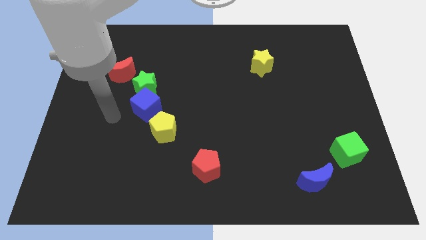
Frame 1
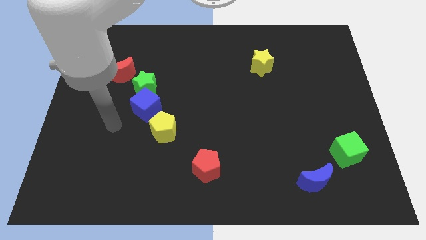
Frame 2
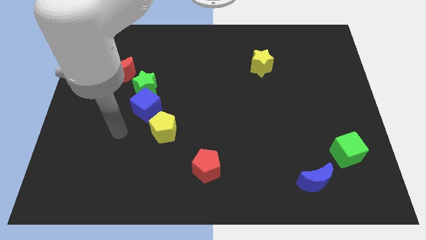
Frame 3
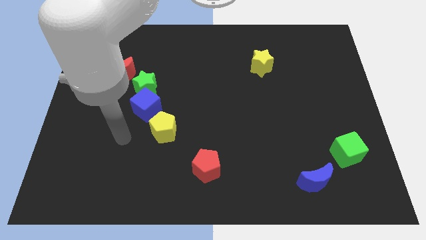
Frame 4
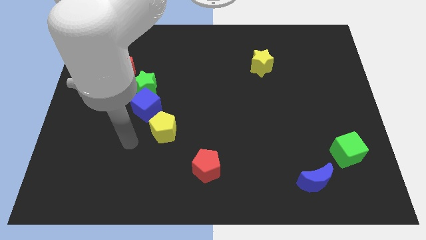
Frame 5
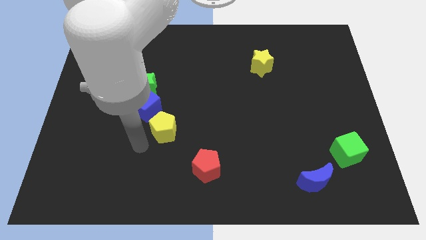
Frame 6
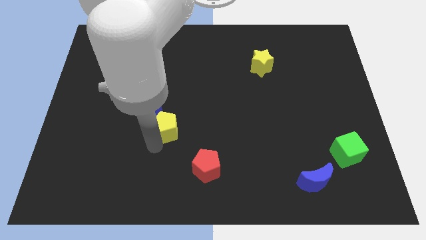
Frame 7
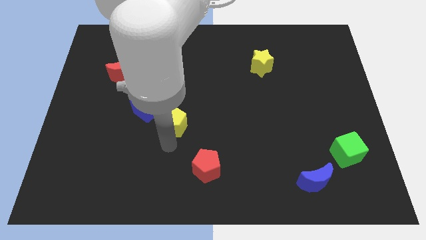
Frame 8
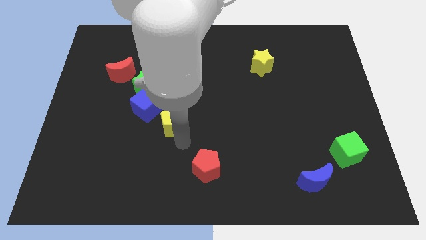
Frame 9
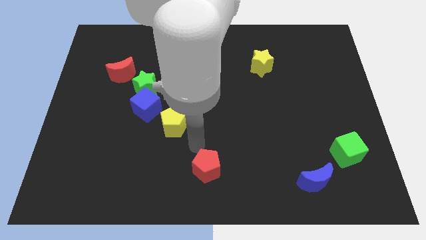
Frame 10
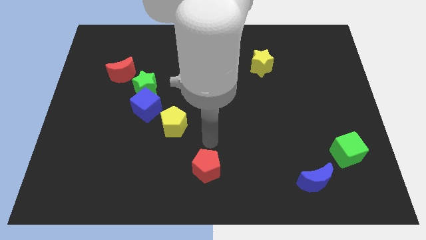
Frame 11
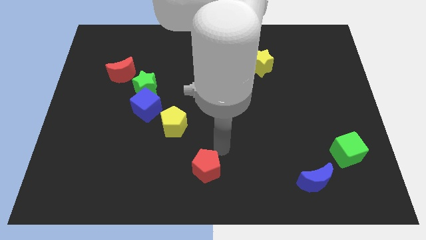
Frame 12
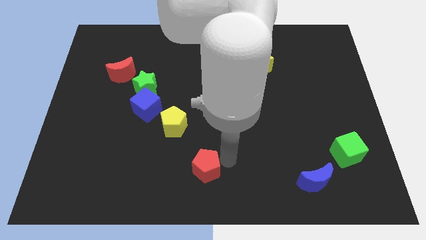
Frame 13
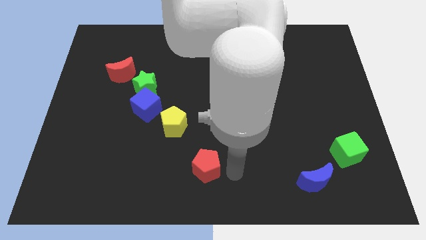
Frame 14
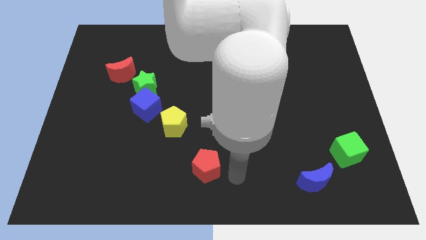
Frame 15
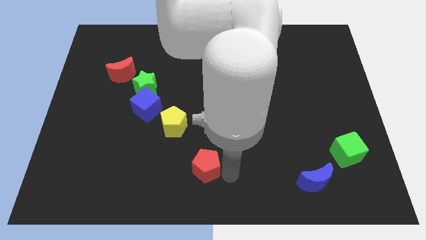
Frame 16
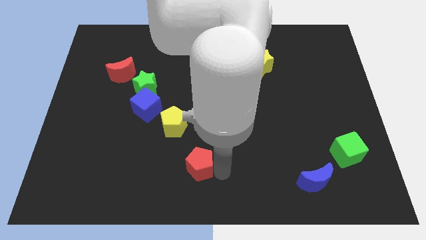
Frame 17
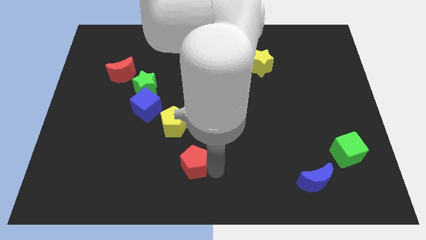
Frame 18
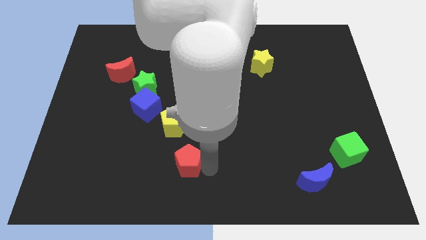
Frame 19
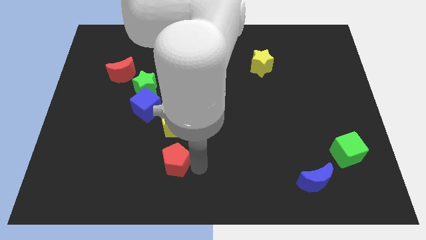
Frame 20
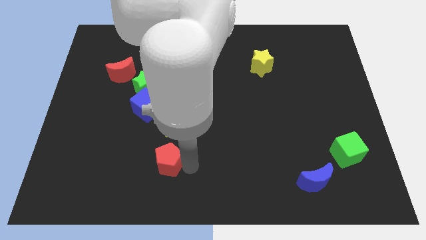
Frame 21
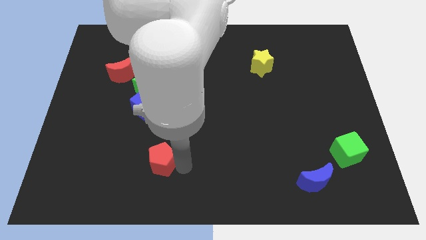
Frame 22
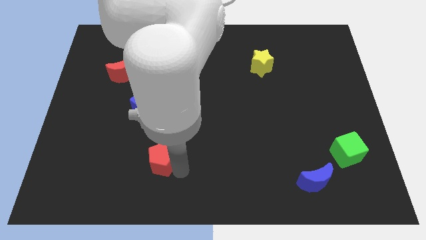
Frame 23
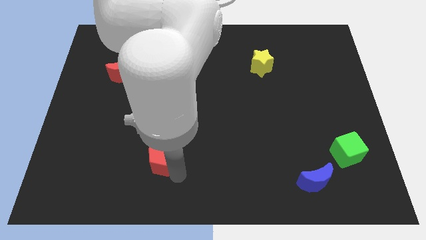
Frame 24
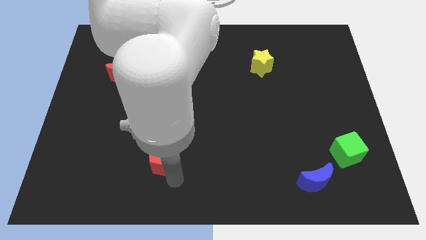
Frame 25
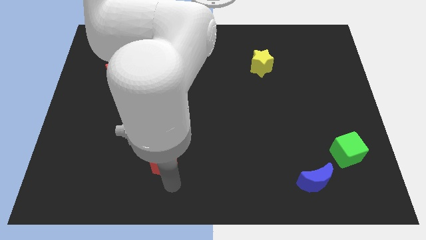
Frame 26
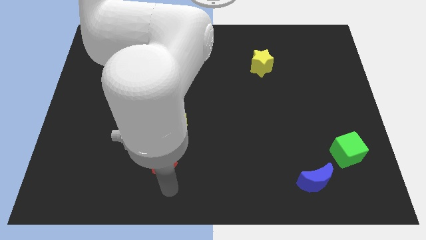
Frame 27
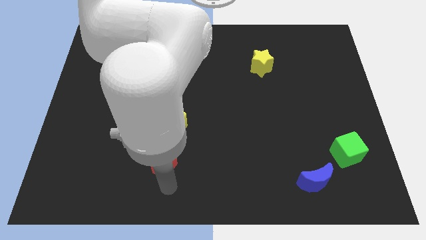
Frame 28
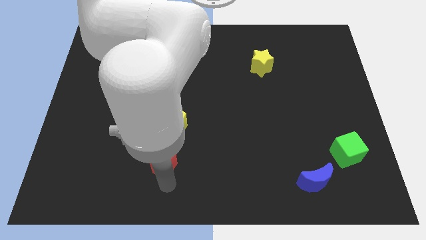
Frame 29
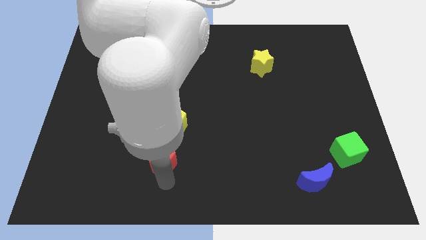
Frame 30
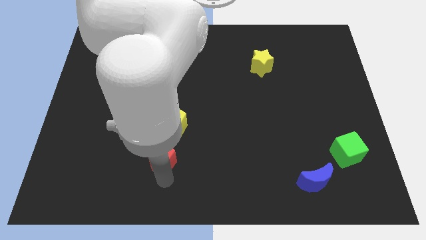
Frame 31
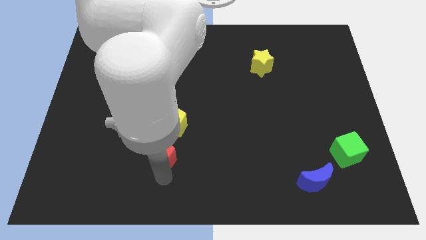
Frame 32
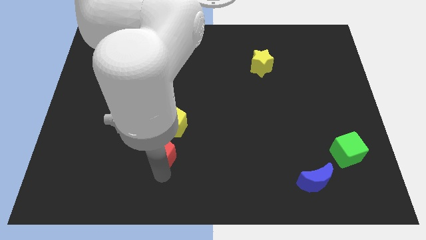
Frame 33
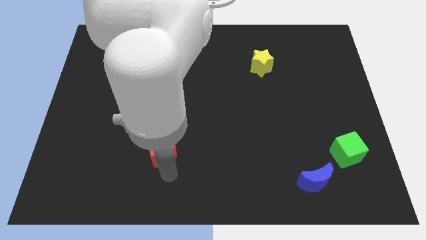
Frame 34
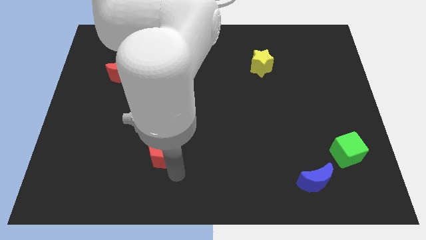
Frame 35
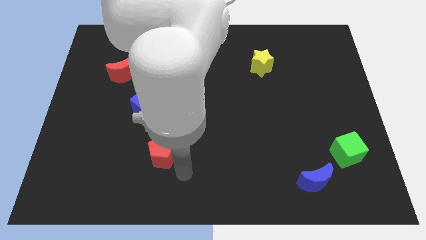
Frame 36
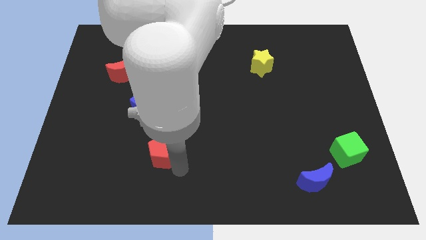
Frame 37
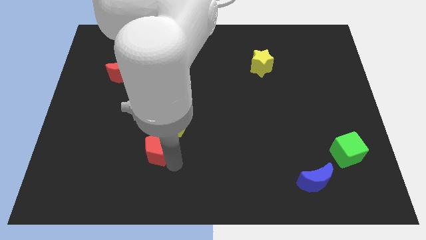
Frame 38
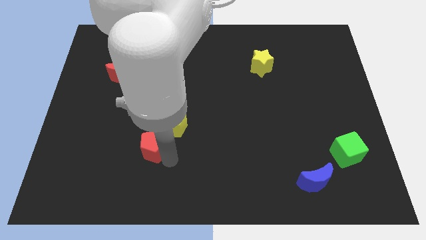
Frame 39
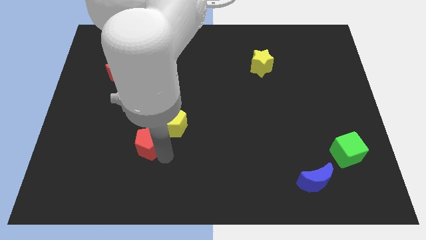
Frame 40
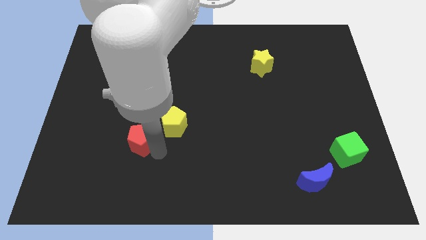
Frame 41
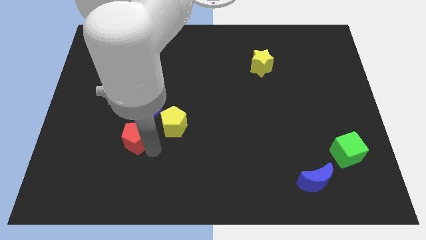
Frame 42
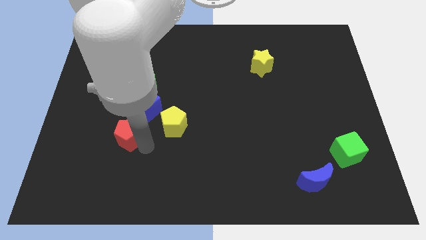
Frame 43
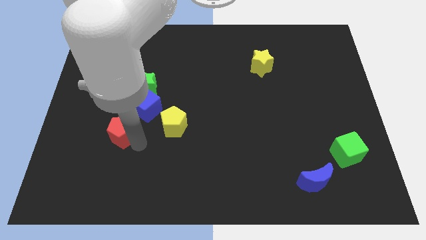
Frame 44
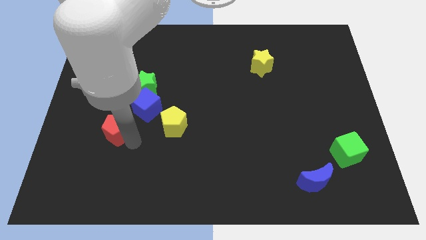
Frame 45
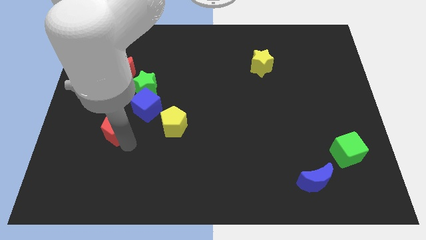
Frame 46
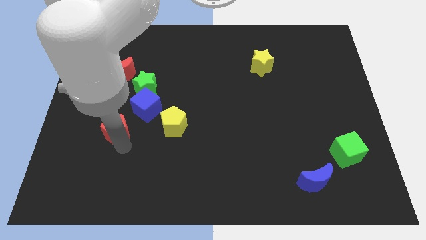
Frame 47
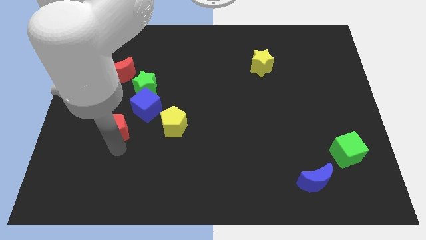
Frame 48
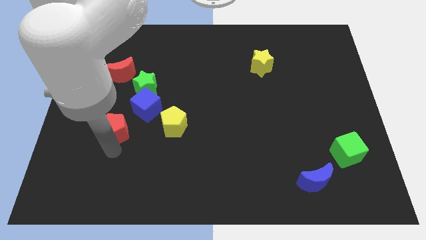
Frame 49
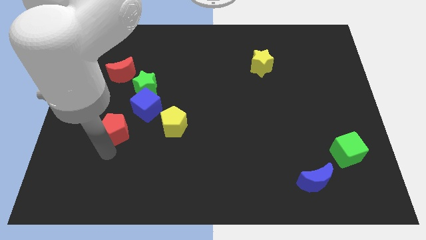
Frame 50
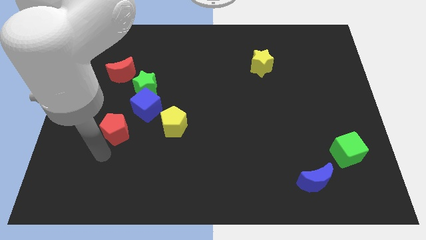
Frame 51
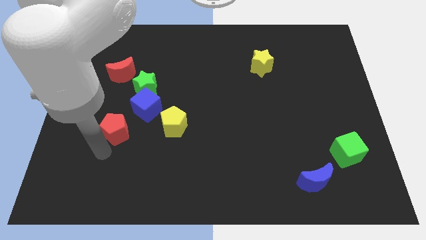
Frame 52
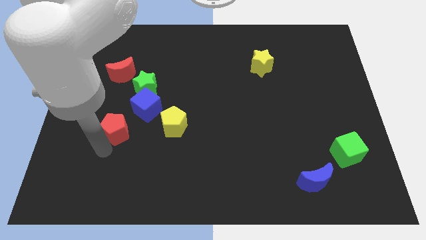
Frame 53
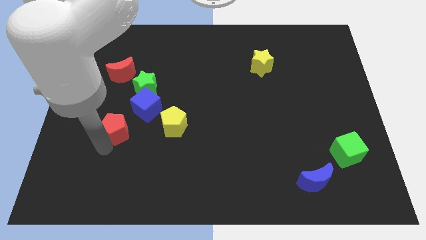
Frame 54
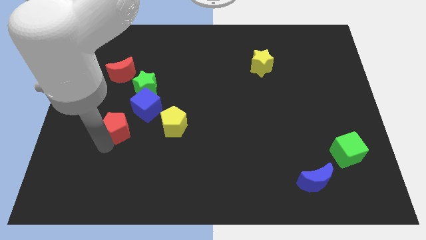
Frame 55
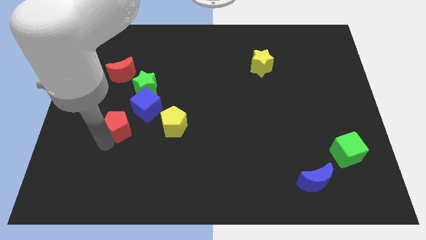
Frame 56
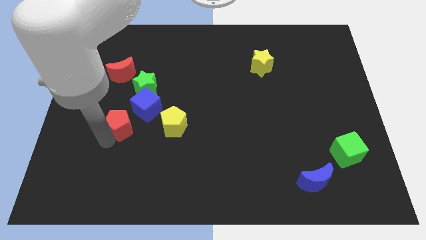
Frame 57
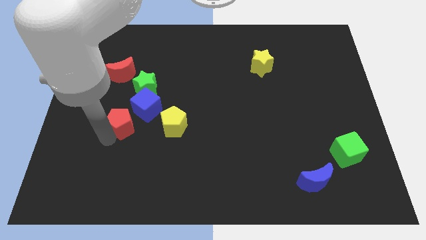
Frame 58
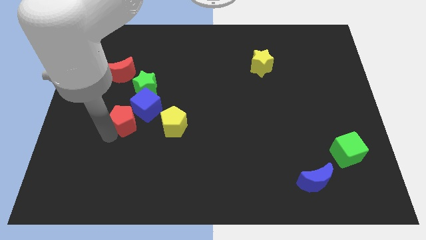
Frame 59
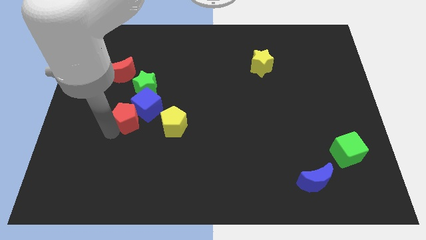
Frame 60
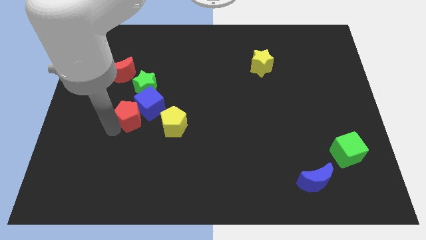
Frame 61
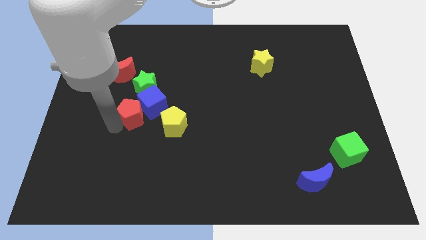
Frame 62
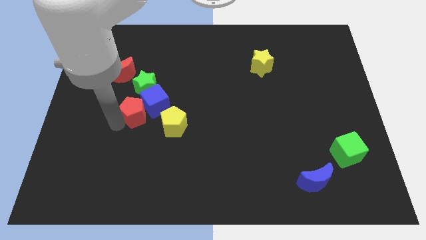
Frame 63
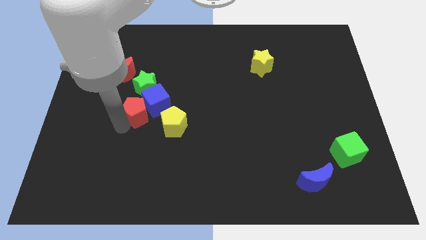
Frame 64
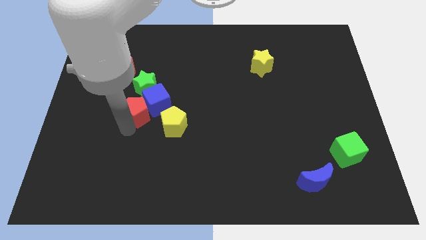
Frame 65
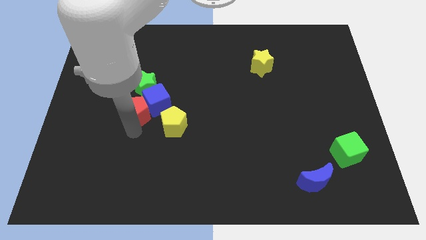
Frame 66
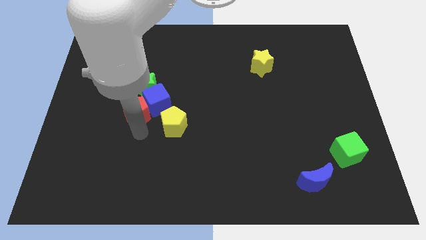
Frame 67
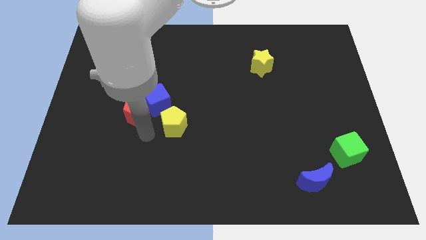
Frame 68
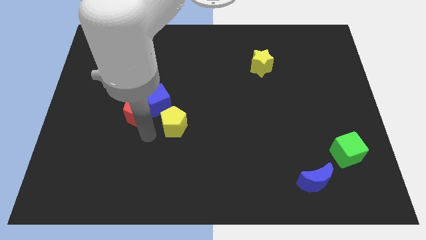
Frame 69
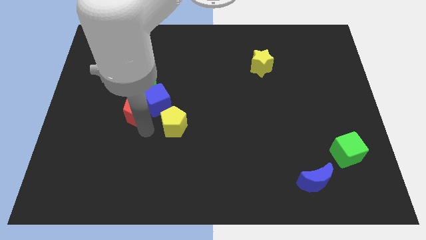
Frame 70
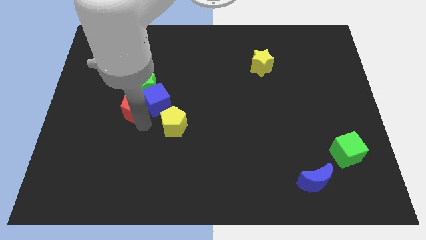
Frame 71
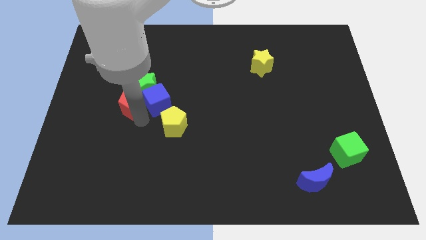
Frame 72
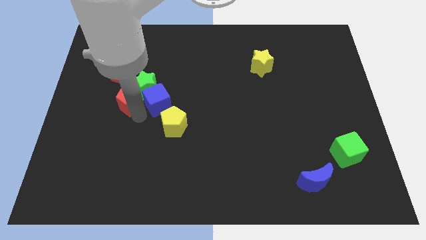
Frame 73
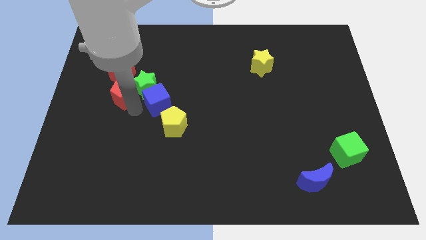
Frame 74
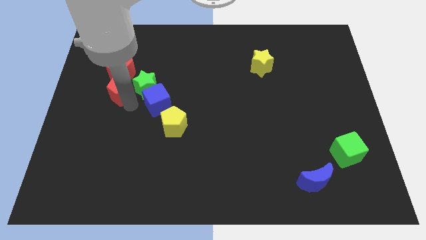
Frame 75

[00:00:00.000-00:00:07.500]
put the red pentagon close to the red moon

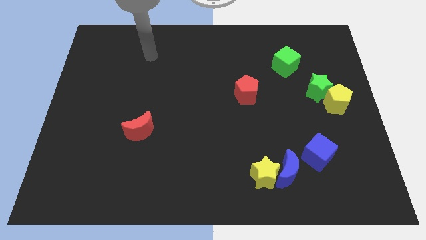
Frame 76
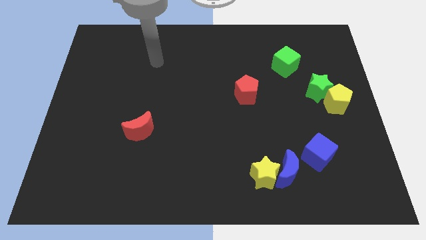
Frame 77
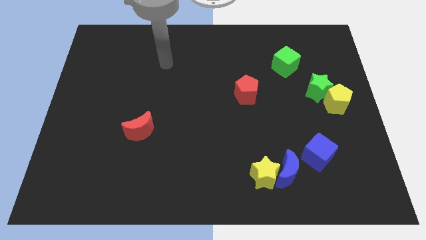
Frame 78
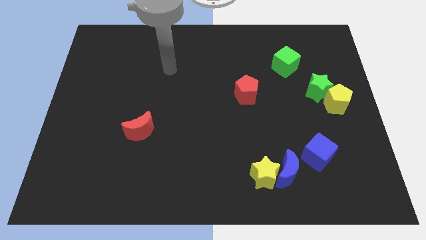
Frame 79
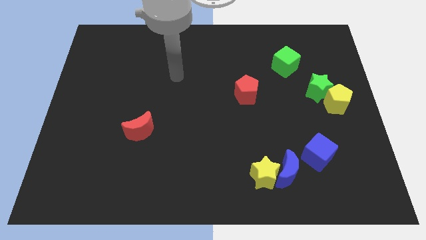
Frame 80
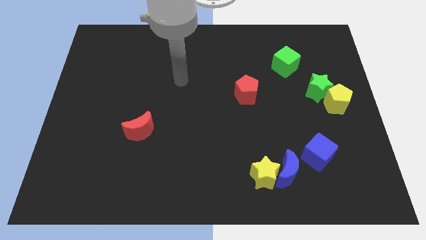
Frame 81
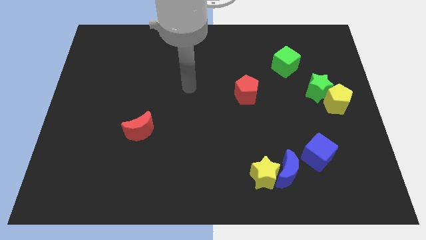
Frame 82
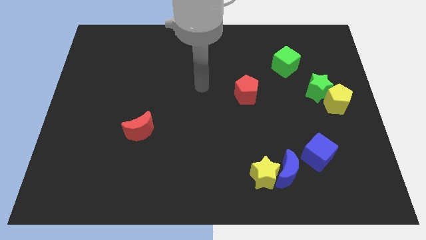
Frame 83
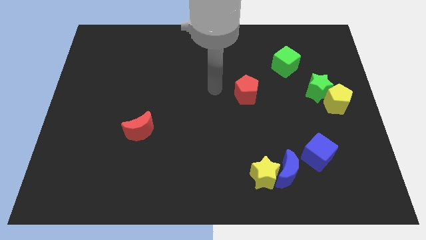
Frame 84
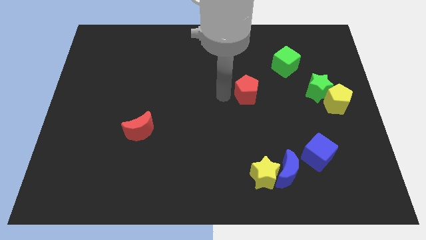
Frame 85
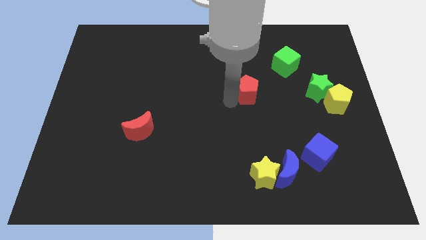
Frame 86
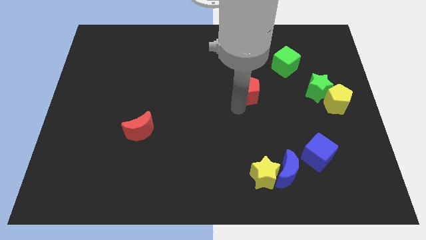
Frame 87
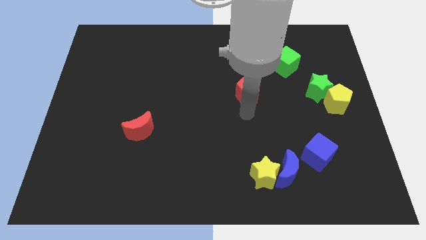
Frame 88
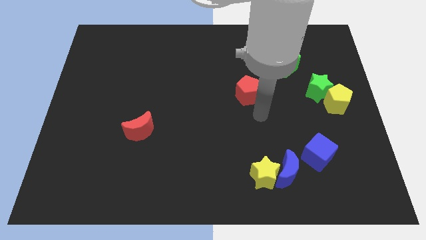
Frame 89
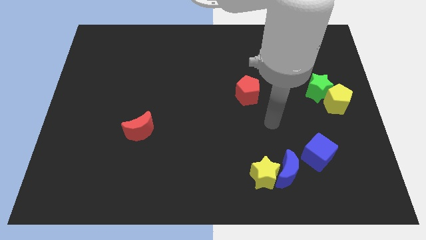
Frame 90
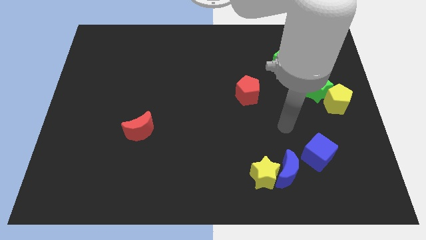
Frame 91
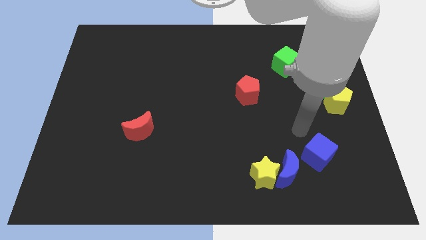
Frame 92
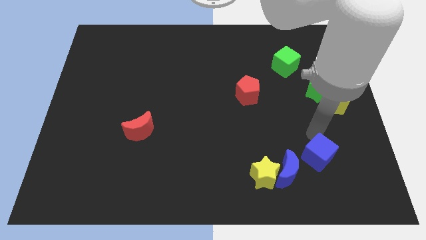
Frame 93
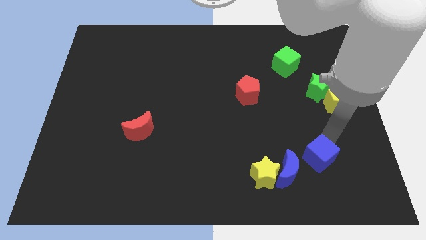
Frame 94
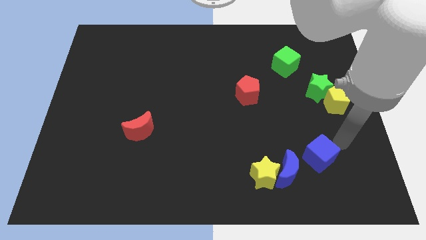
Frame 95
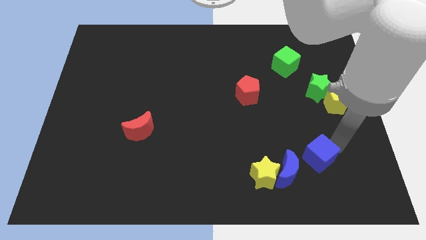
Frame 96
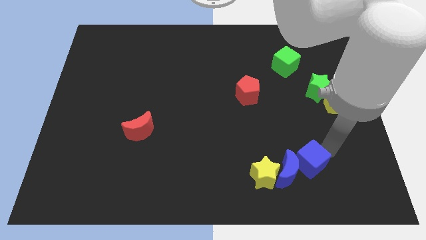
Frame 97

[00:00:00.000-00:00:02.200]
move the blue cube towards the blue moon
